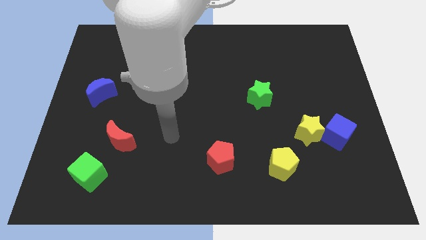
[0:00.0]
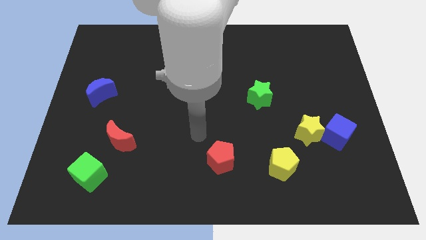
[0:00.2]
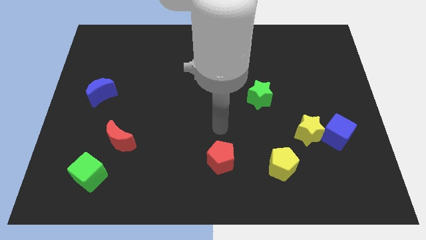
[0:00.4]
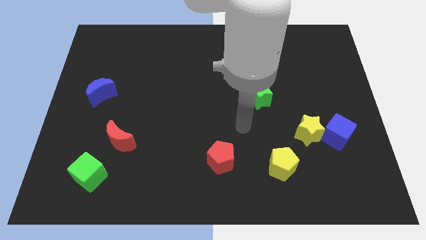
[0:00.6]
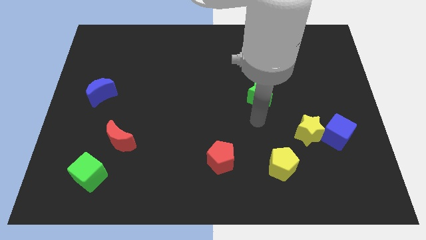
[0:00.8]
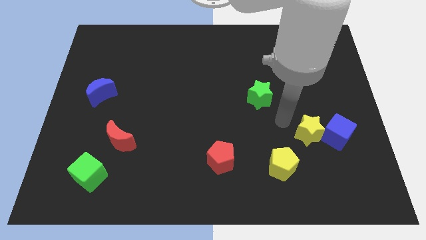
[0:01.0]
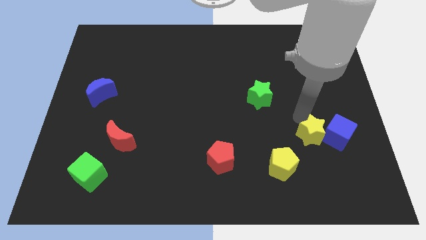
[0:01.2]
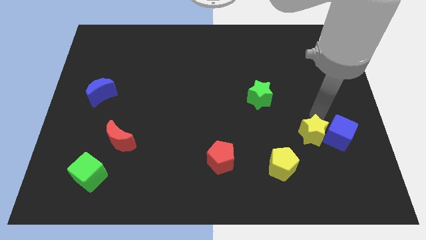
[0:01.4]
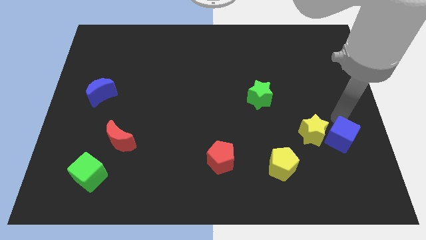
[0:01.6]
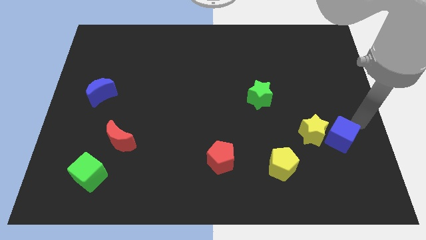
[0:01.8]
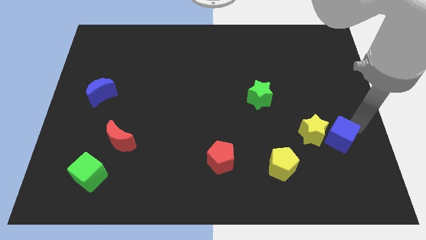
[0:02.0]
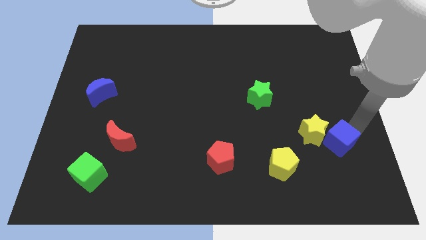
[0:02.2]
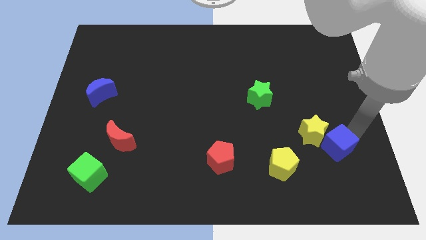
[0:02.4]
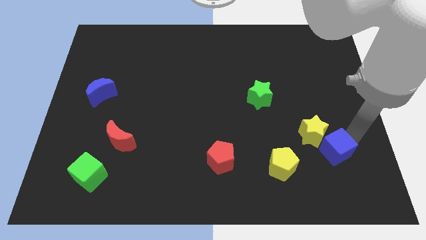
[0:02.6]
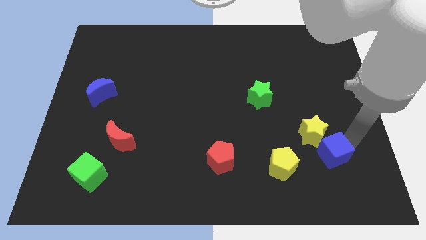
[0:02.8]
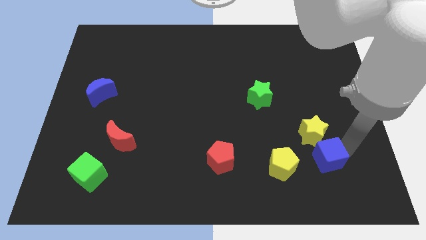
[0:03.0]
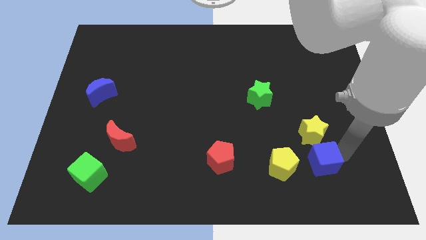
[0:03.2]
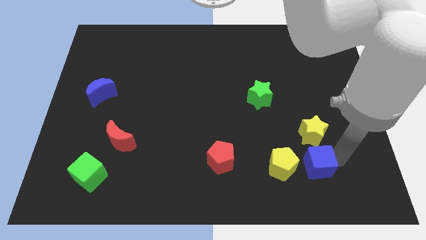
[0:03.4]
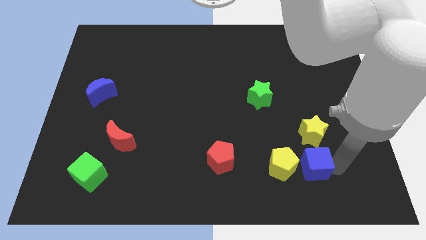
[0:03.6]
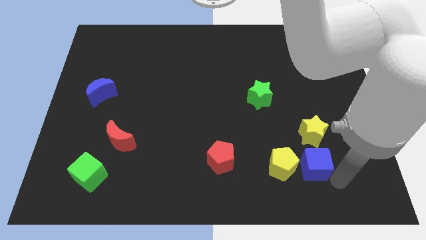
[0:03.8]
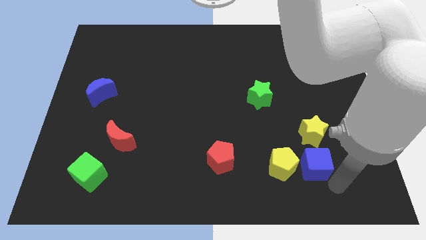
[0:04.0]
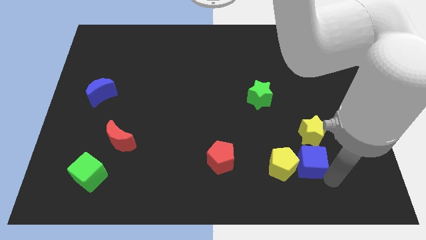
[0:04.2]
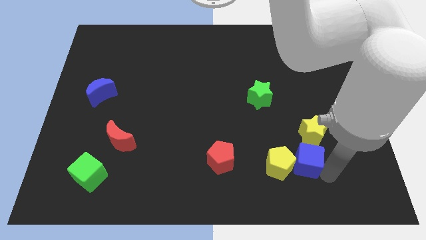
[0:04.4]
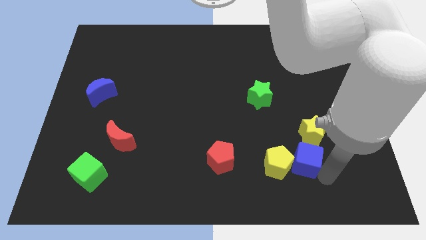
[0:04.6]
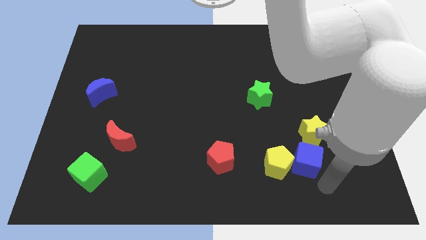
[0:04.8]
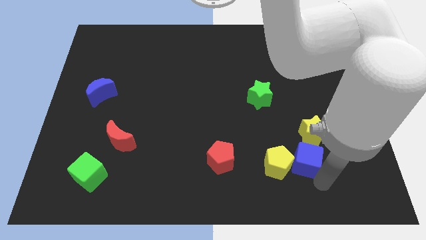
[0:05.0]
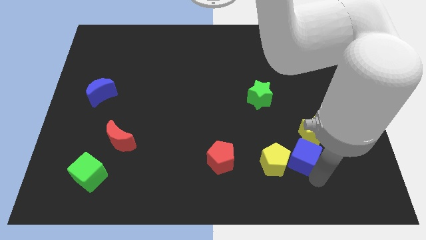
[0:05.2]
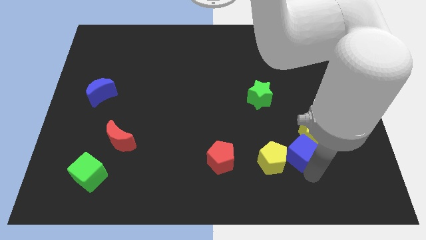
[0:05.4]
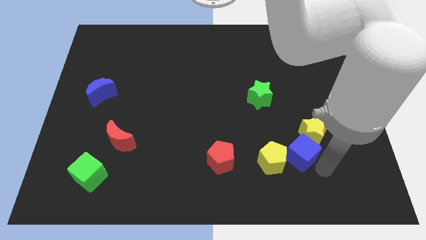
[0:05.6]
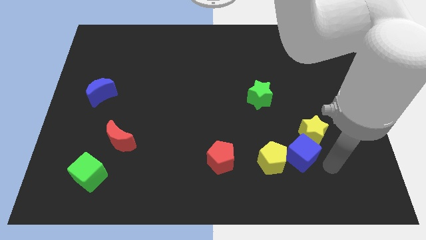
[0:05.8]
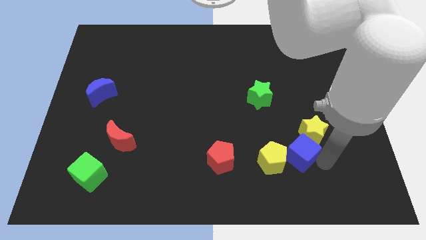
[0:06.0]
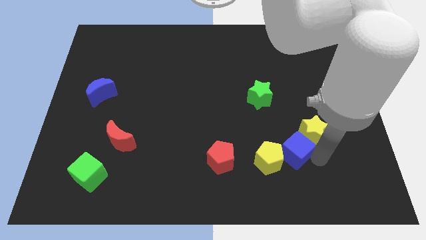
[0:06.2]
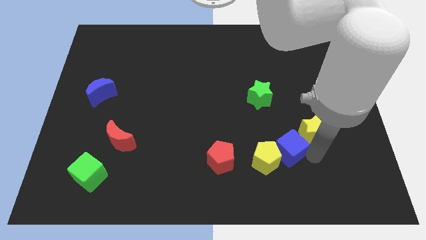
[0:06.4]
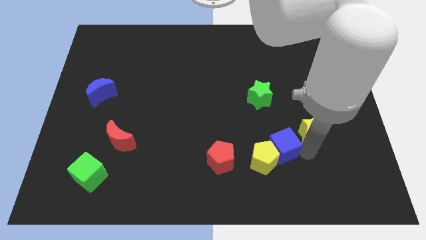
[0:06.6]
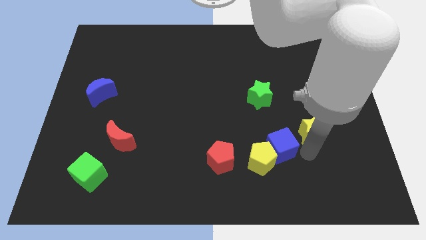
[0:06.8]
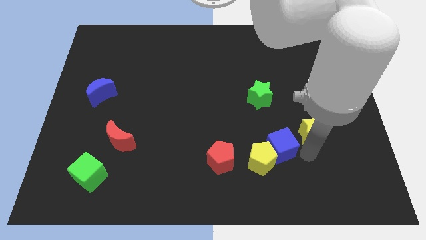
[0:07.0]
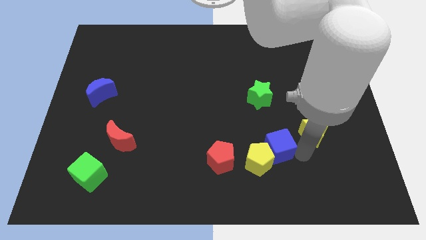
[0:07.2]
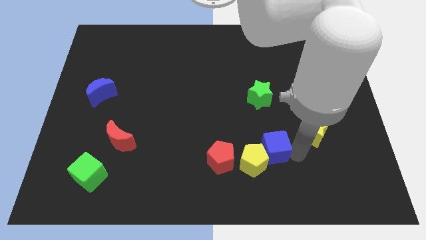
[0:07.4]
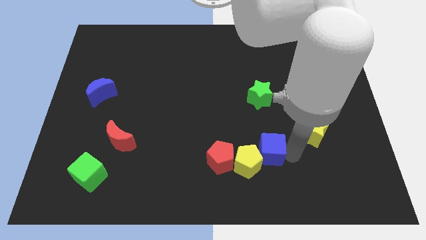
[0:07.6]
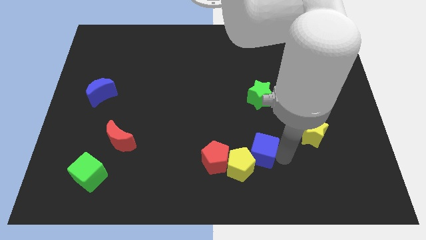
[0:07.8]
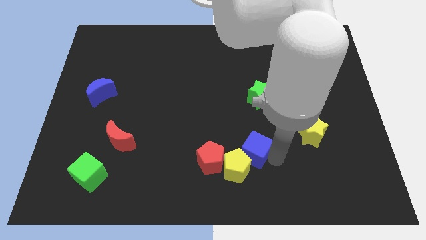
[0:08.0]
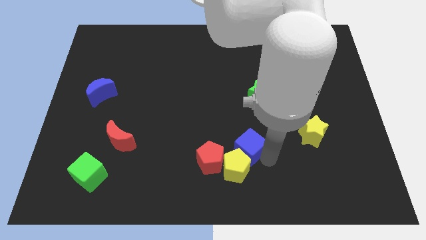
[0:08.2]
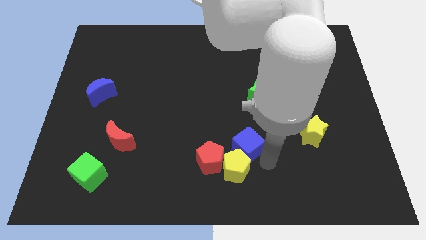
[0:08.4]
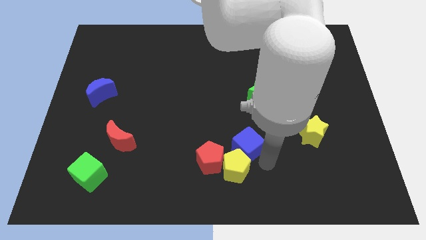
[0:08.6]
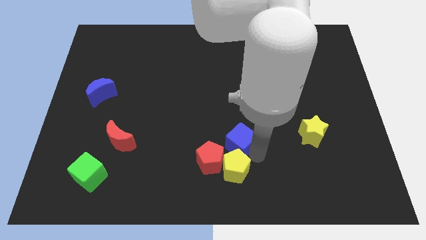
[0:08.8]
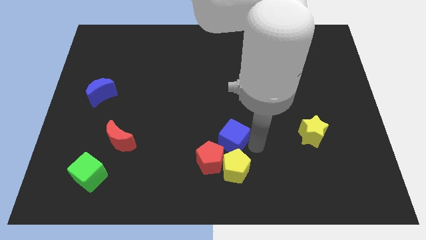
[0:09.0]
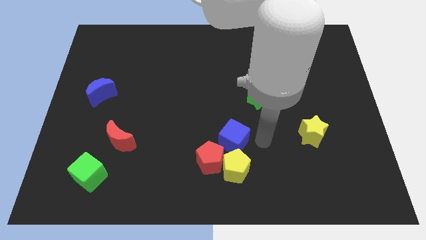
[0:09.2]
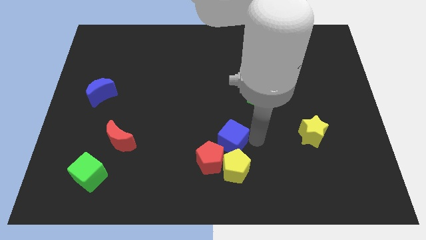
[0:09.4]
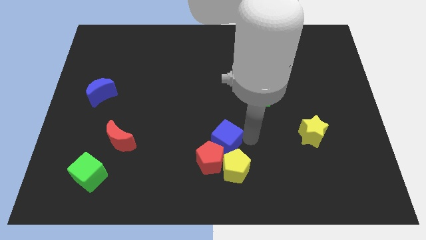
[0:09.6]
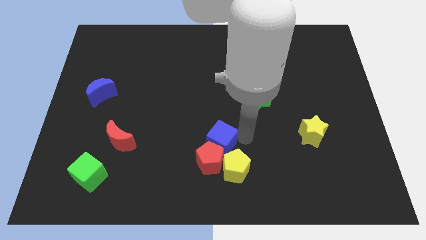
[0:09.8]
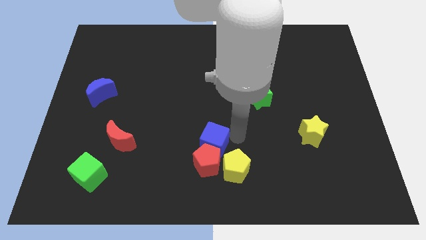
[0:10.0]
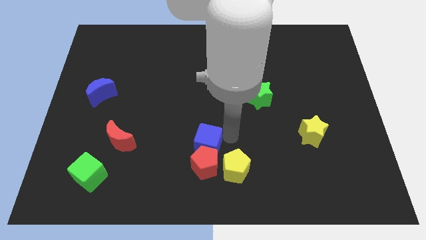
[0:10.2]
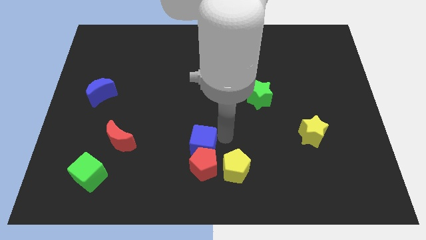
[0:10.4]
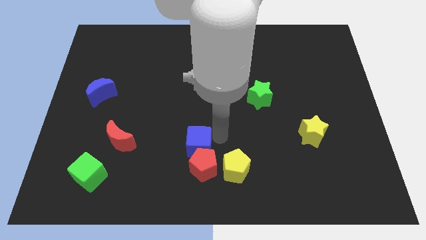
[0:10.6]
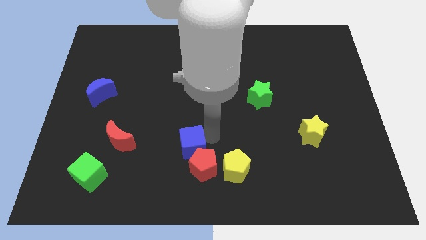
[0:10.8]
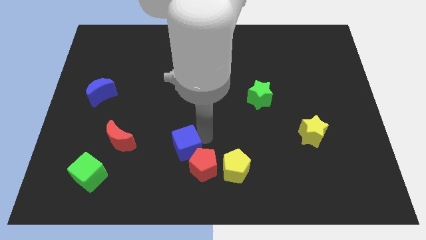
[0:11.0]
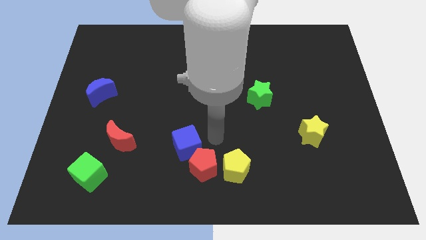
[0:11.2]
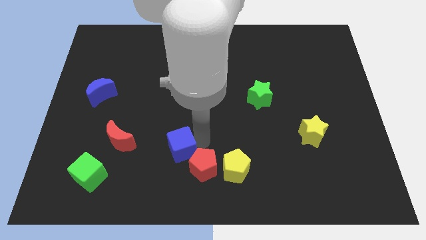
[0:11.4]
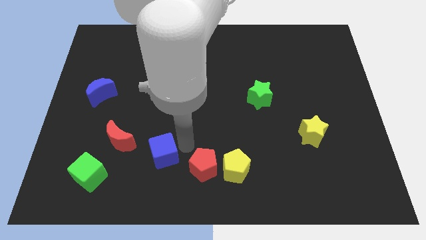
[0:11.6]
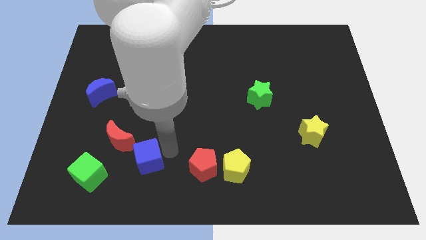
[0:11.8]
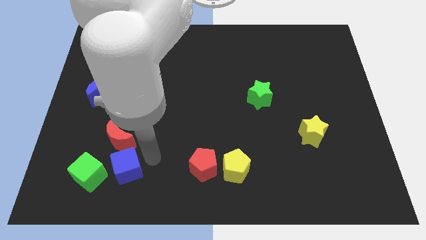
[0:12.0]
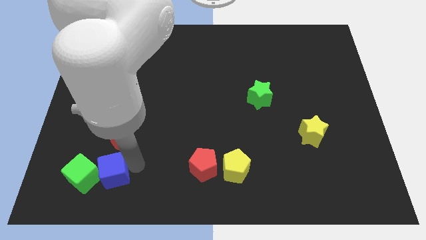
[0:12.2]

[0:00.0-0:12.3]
push the blue cube close to the green cube

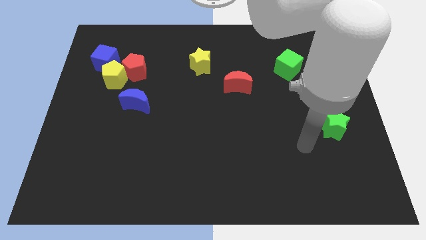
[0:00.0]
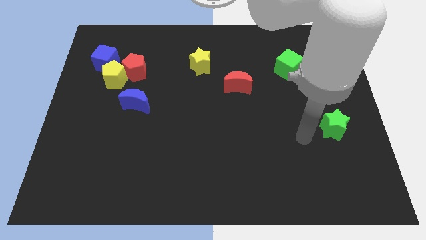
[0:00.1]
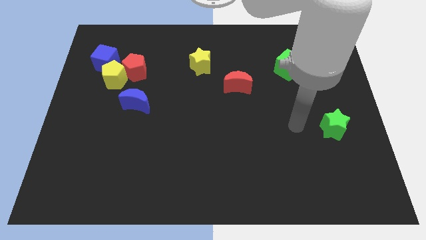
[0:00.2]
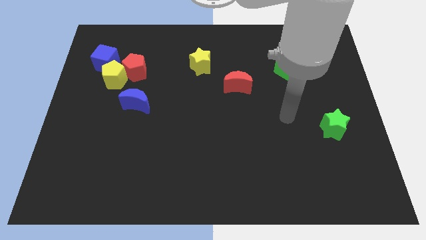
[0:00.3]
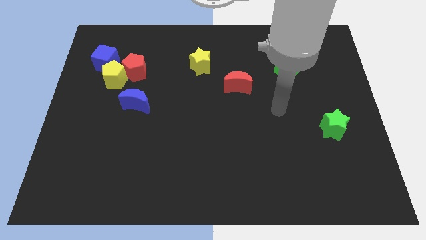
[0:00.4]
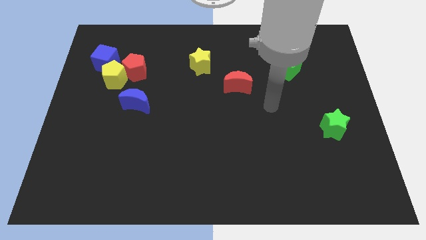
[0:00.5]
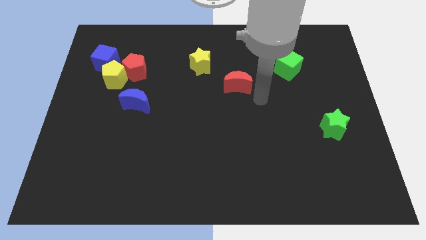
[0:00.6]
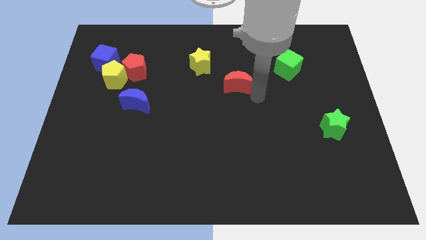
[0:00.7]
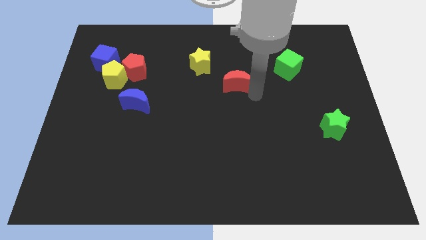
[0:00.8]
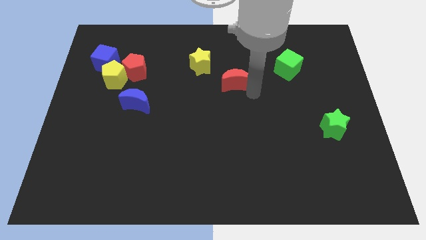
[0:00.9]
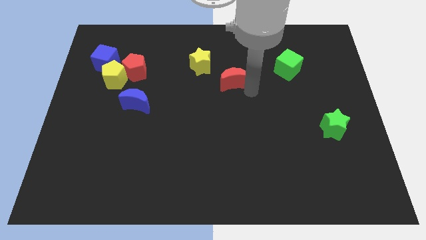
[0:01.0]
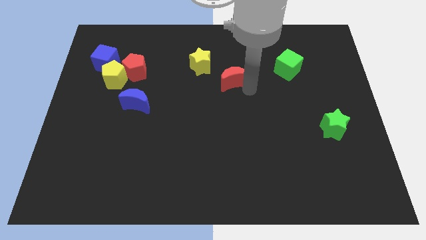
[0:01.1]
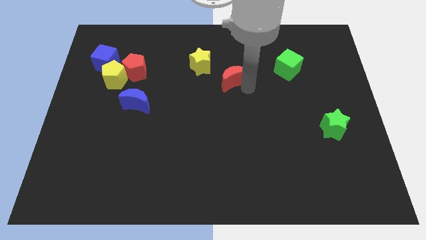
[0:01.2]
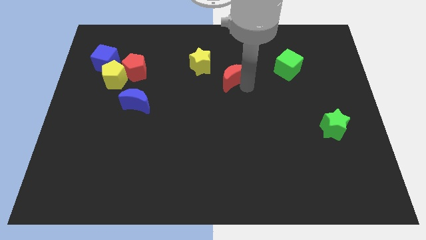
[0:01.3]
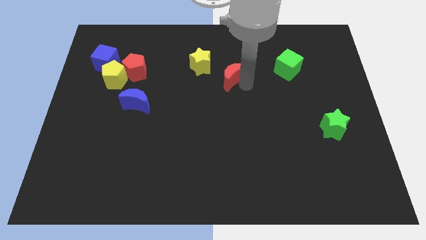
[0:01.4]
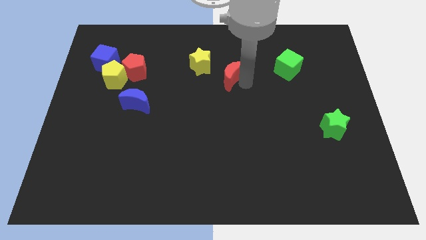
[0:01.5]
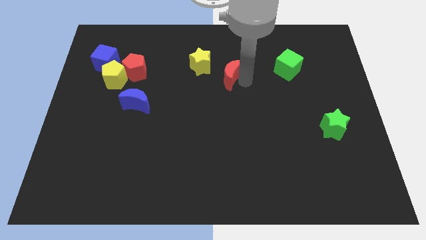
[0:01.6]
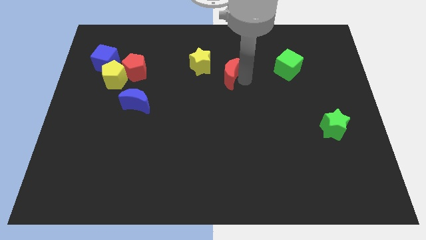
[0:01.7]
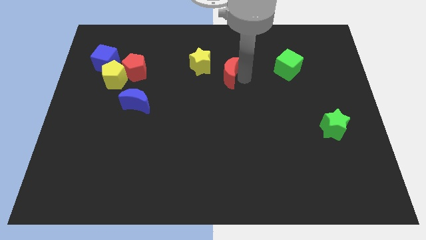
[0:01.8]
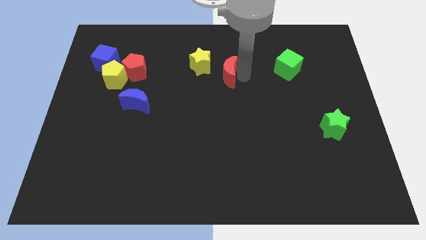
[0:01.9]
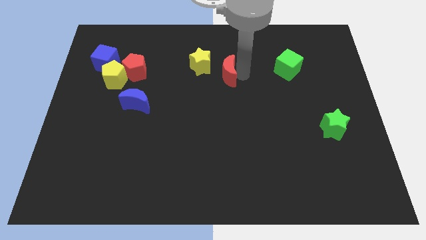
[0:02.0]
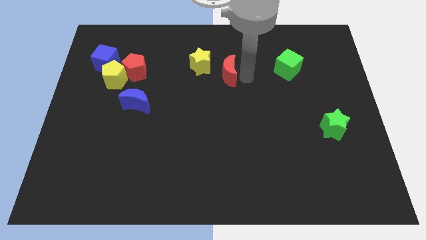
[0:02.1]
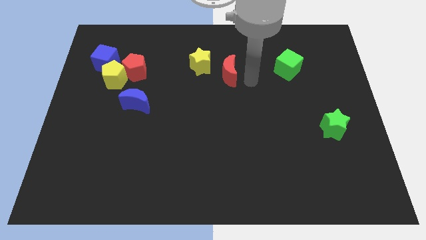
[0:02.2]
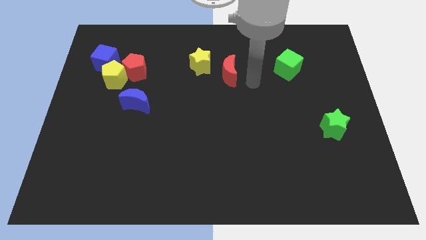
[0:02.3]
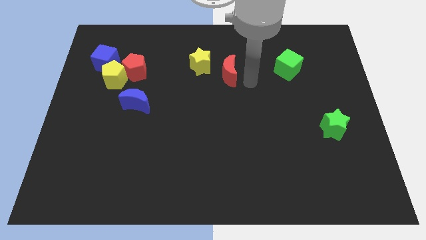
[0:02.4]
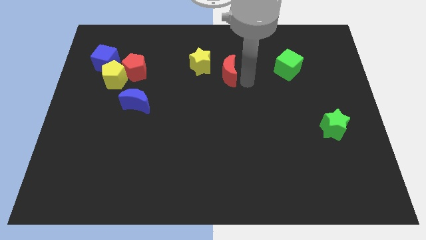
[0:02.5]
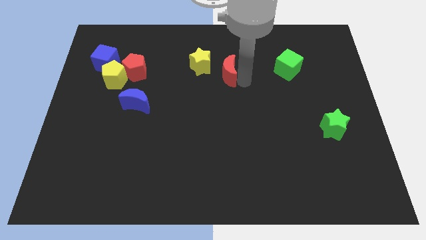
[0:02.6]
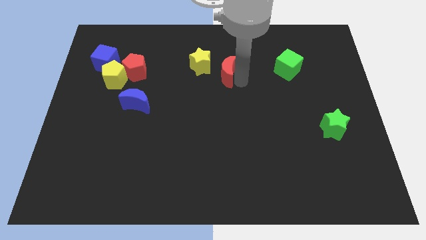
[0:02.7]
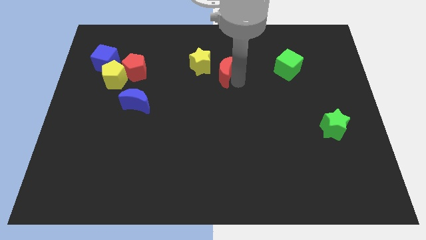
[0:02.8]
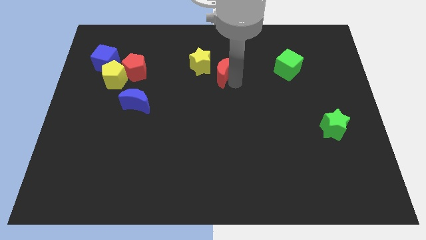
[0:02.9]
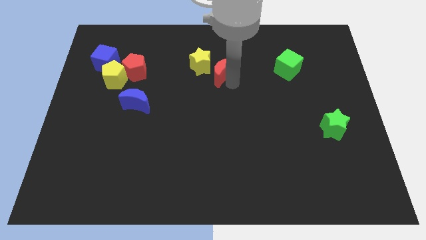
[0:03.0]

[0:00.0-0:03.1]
push the red moon next to the yellow star
